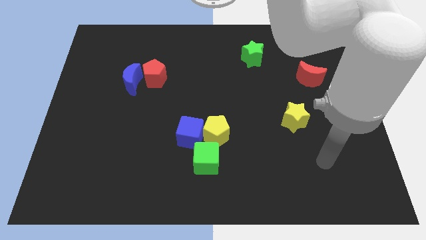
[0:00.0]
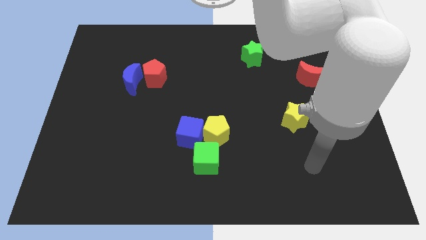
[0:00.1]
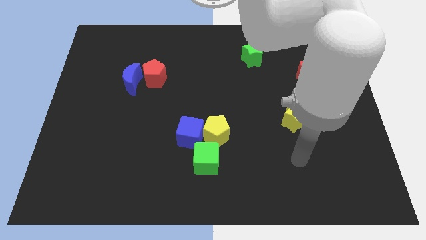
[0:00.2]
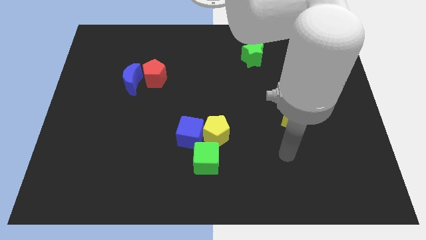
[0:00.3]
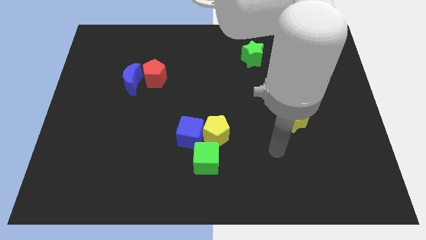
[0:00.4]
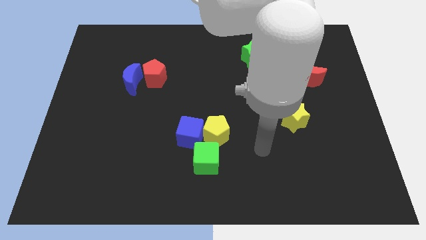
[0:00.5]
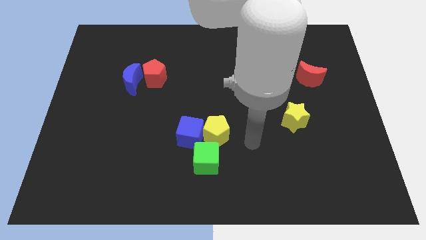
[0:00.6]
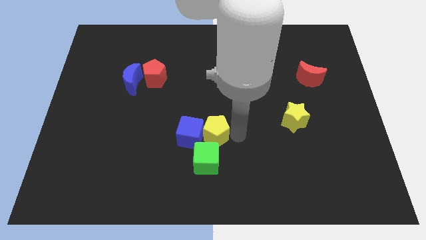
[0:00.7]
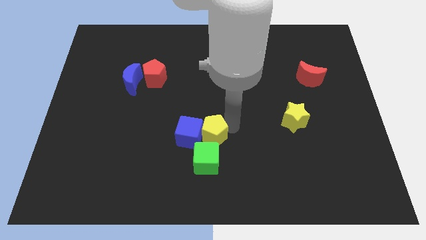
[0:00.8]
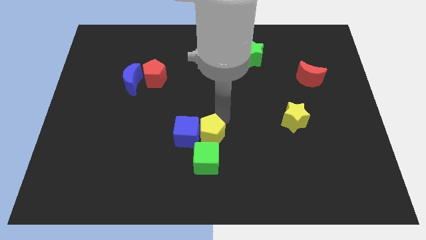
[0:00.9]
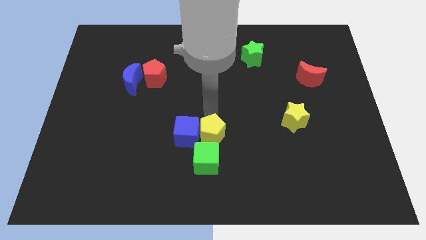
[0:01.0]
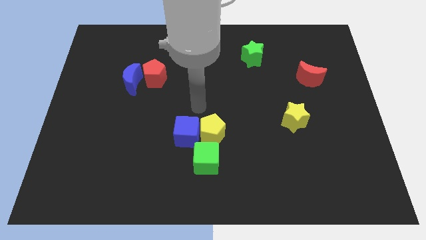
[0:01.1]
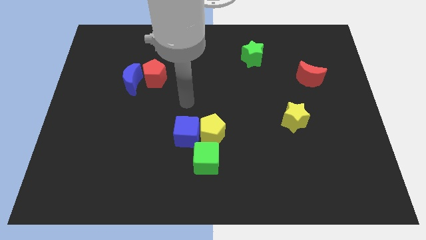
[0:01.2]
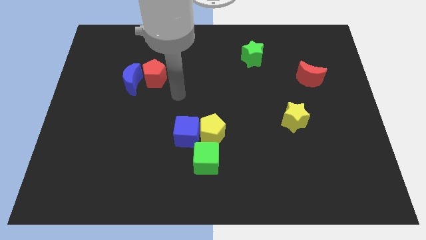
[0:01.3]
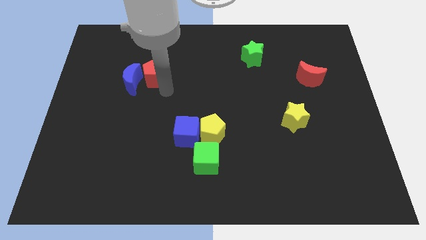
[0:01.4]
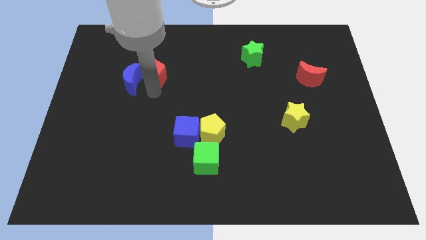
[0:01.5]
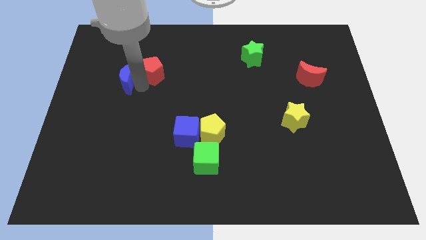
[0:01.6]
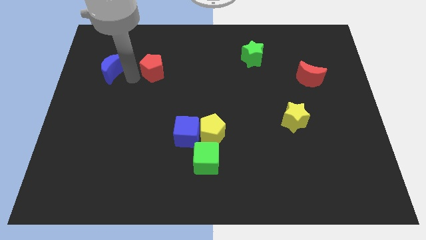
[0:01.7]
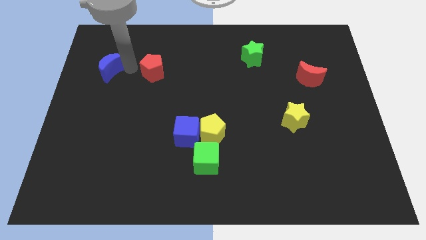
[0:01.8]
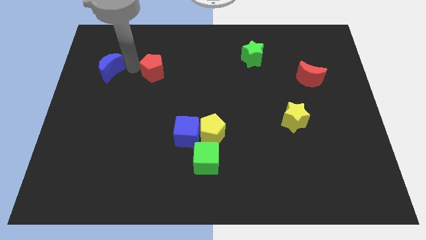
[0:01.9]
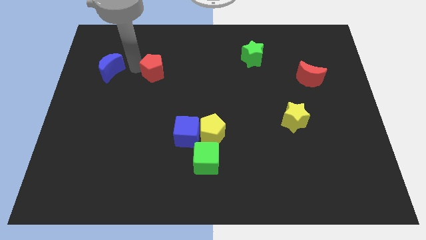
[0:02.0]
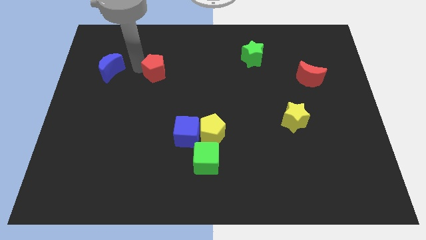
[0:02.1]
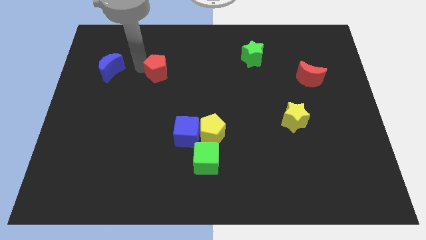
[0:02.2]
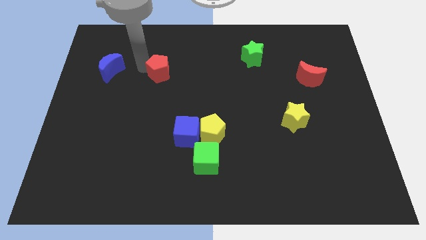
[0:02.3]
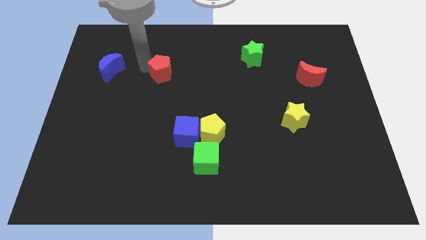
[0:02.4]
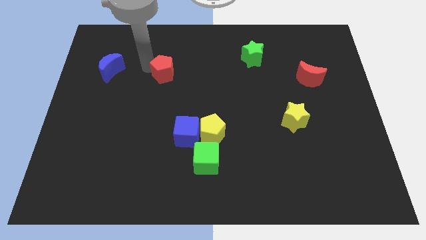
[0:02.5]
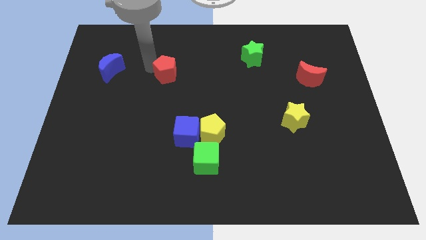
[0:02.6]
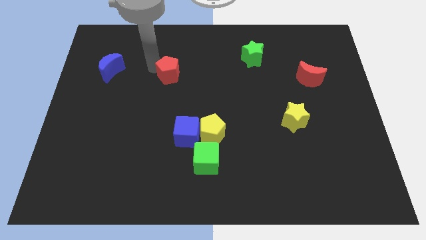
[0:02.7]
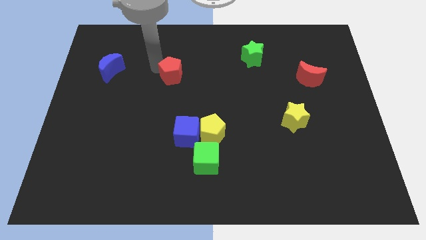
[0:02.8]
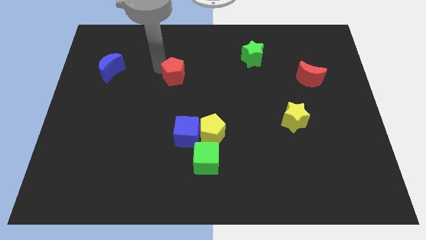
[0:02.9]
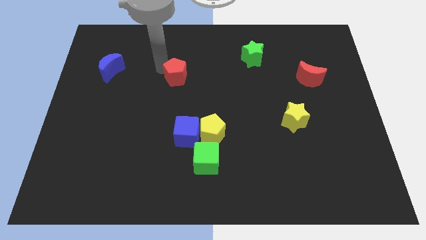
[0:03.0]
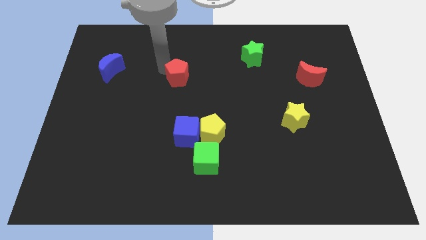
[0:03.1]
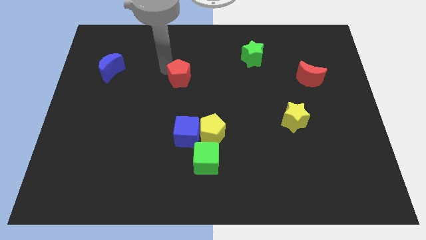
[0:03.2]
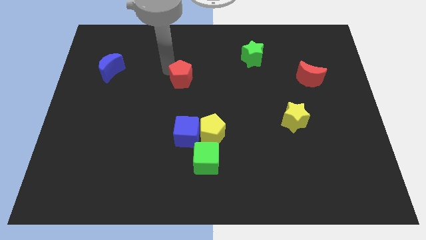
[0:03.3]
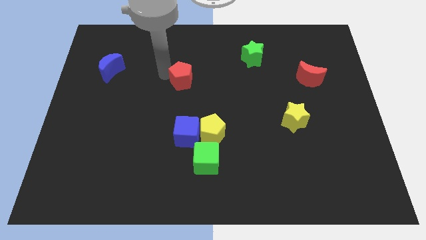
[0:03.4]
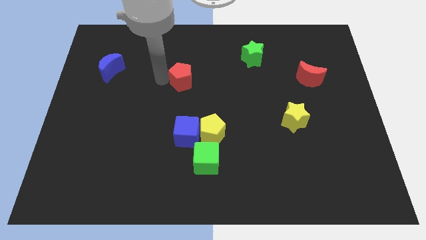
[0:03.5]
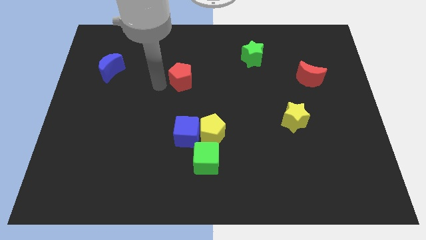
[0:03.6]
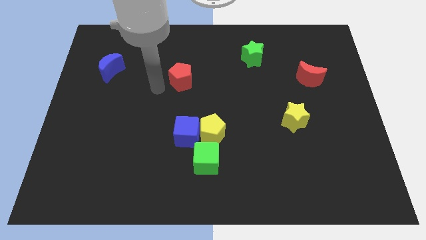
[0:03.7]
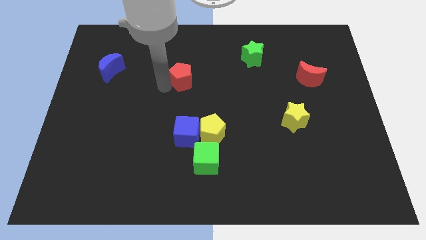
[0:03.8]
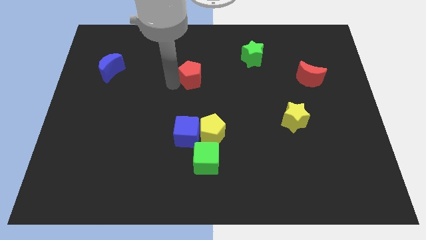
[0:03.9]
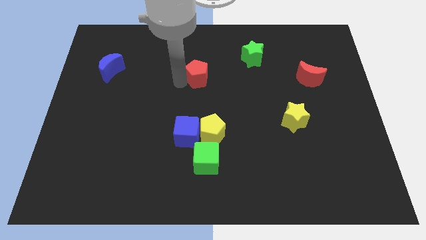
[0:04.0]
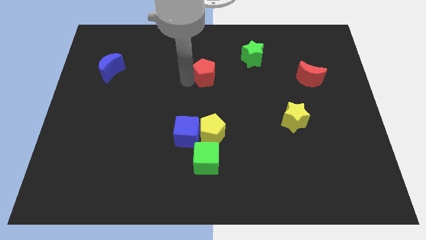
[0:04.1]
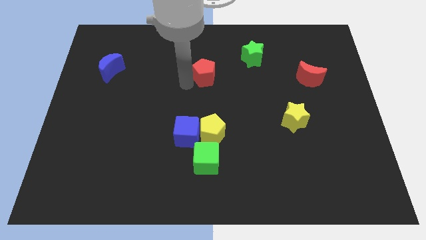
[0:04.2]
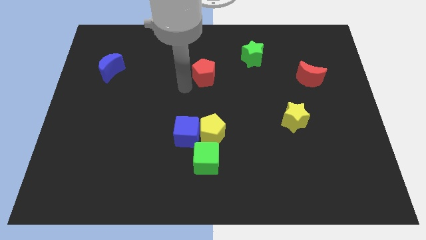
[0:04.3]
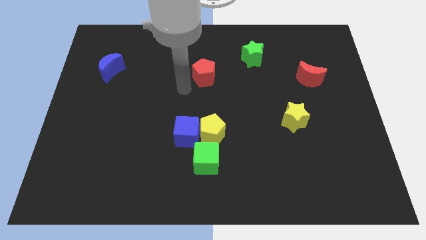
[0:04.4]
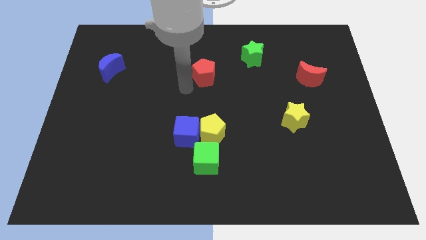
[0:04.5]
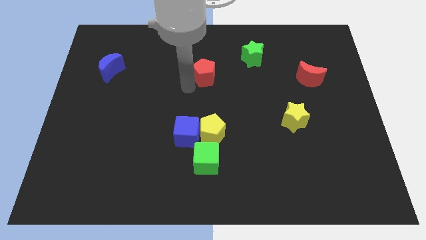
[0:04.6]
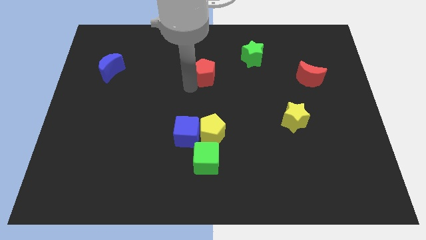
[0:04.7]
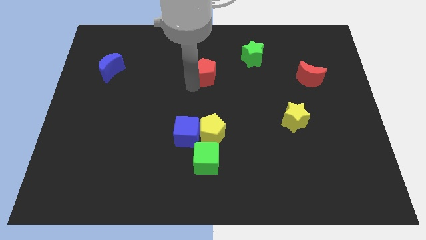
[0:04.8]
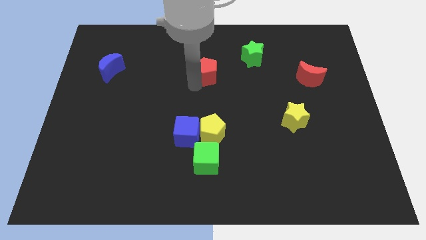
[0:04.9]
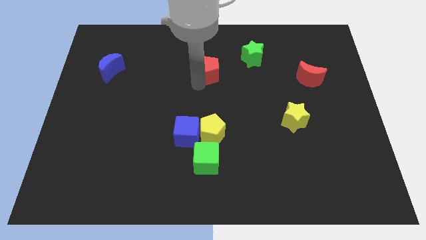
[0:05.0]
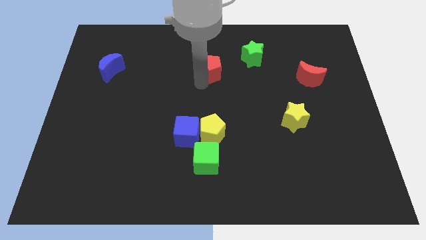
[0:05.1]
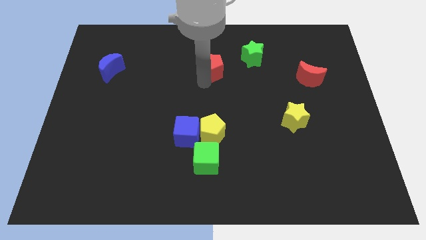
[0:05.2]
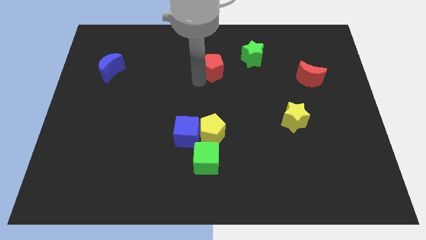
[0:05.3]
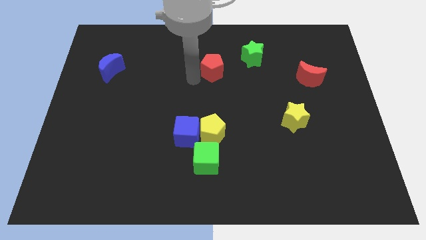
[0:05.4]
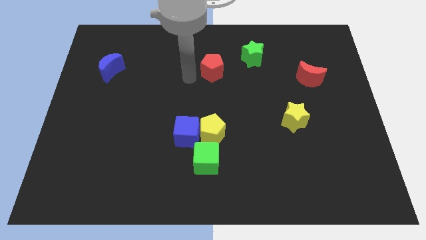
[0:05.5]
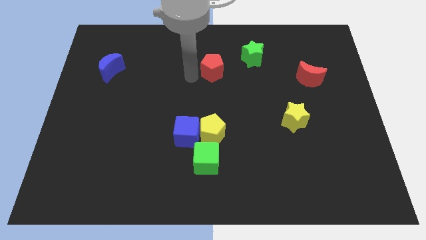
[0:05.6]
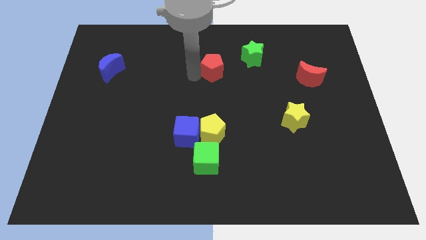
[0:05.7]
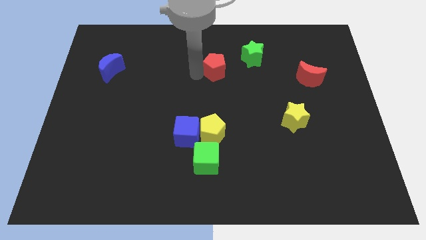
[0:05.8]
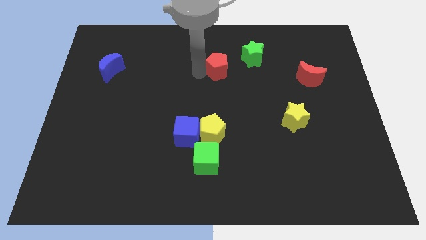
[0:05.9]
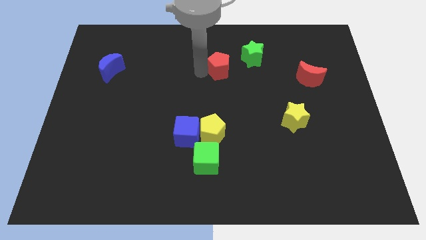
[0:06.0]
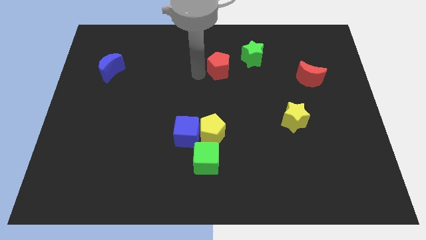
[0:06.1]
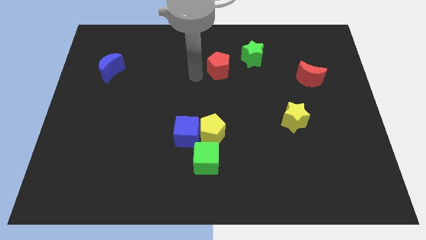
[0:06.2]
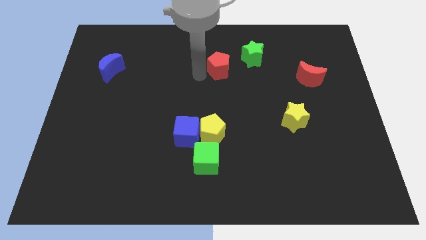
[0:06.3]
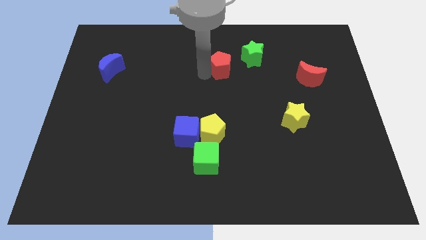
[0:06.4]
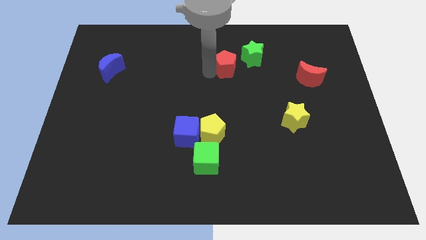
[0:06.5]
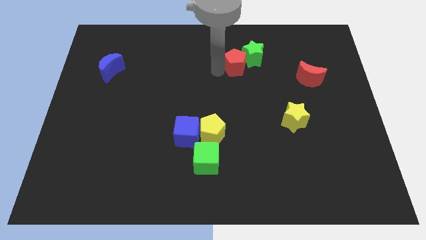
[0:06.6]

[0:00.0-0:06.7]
put the red pentagon next to the green star
